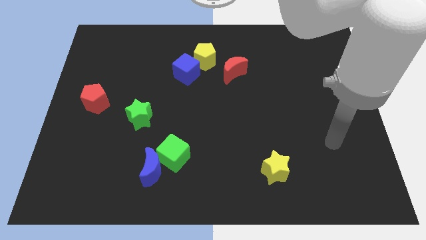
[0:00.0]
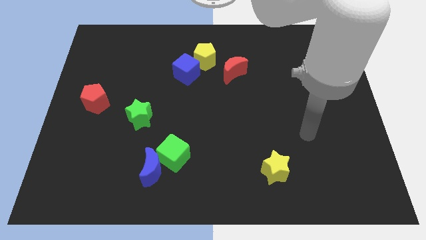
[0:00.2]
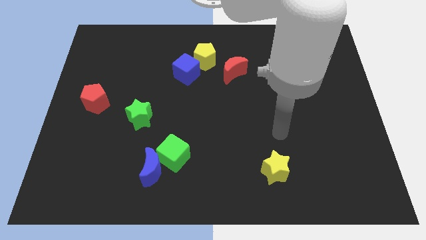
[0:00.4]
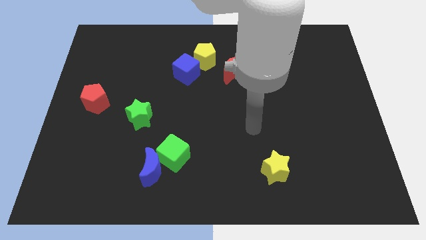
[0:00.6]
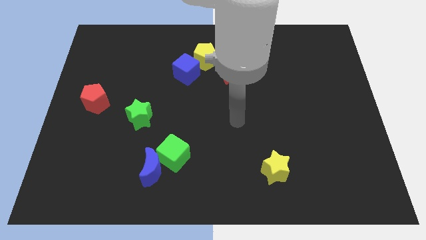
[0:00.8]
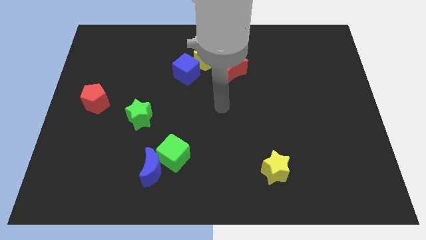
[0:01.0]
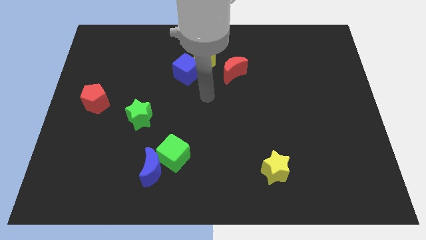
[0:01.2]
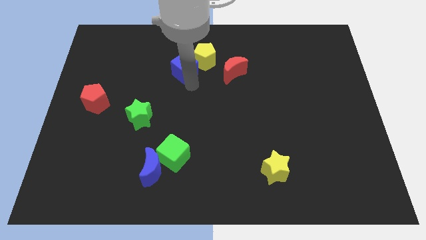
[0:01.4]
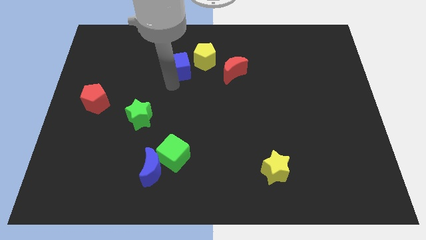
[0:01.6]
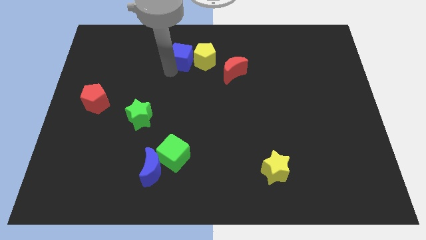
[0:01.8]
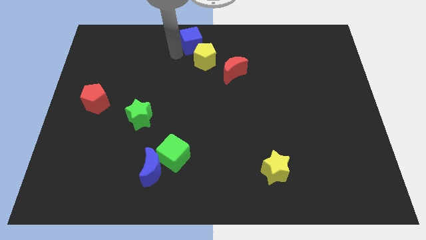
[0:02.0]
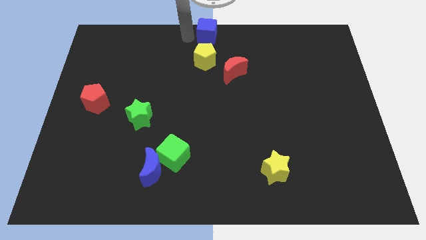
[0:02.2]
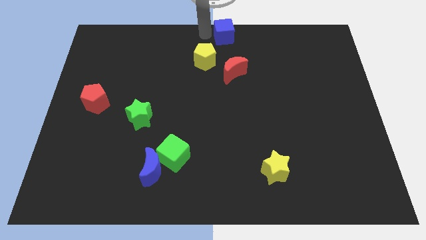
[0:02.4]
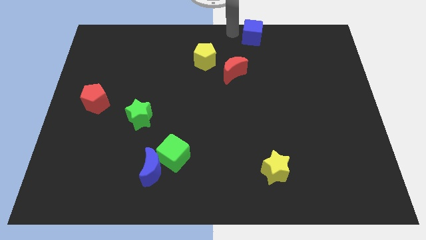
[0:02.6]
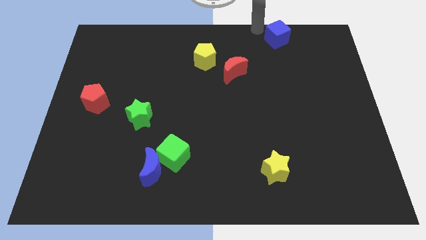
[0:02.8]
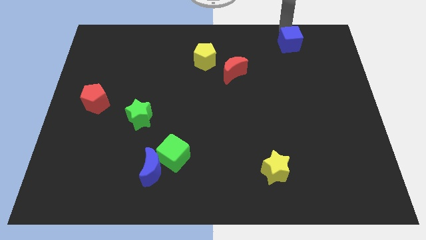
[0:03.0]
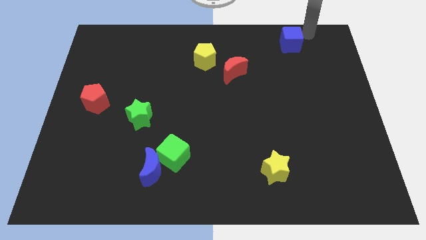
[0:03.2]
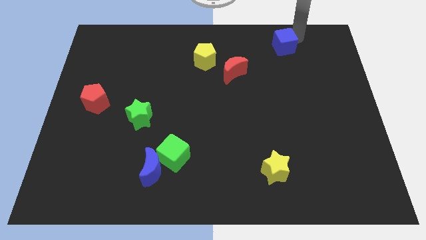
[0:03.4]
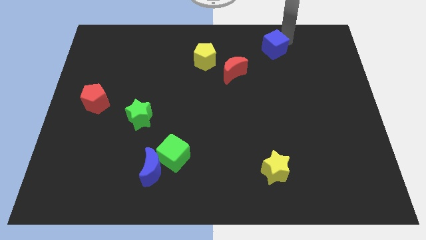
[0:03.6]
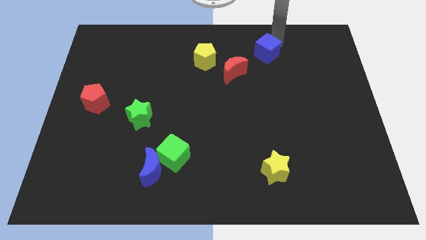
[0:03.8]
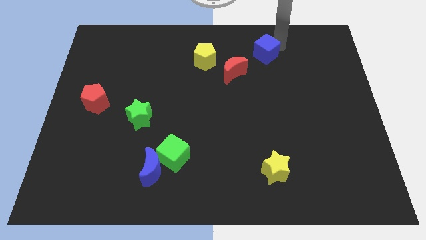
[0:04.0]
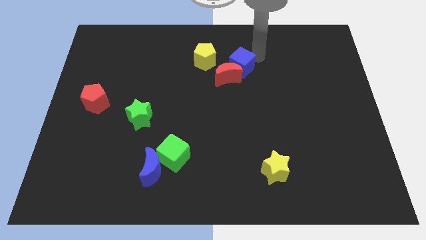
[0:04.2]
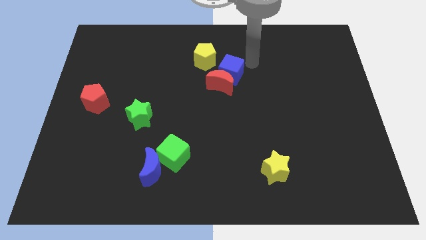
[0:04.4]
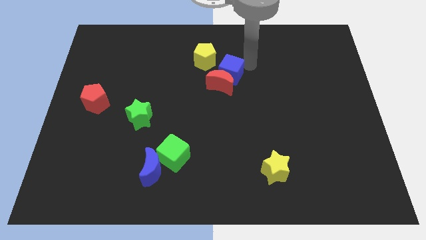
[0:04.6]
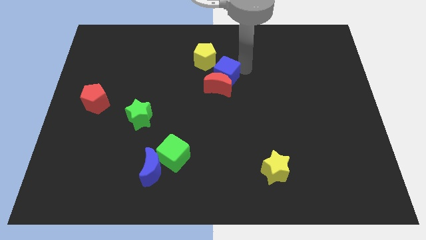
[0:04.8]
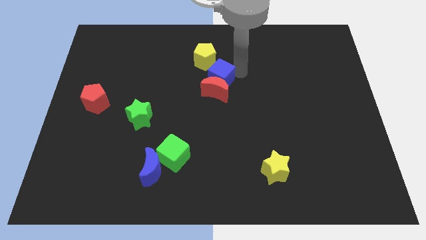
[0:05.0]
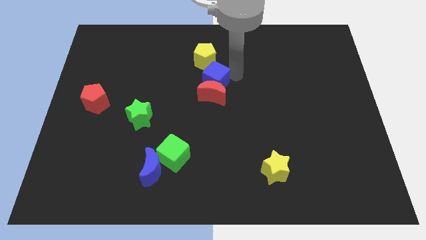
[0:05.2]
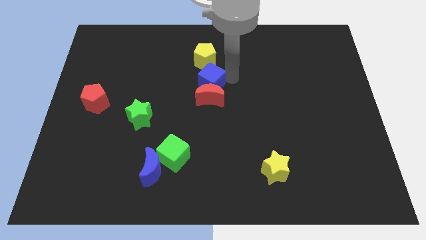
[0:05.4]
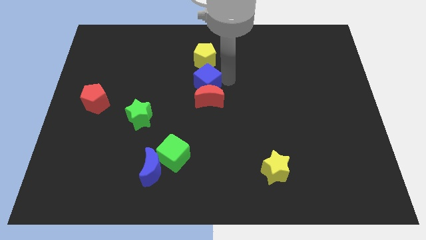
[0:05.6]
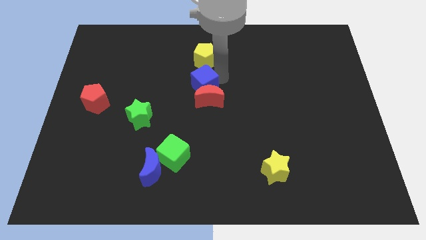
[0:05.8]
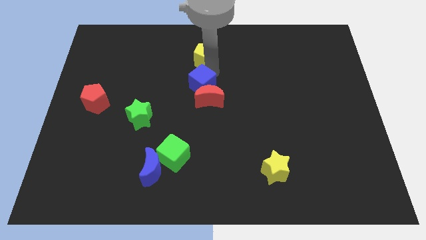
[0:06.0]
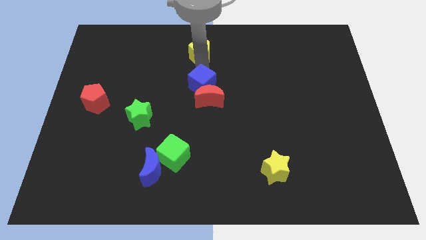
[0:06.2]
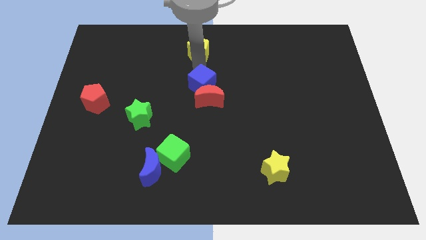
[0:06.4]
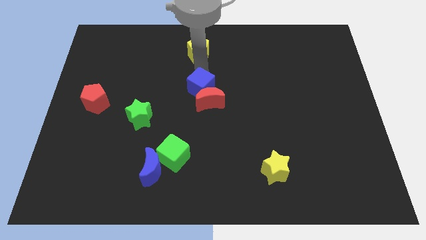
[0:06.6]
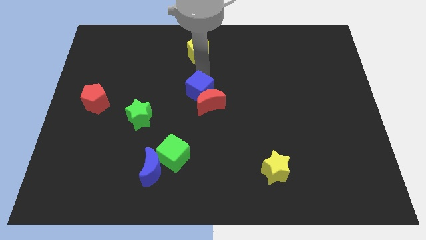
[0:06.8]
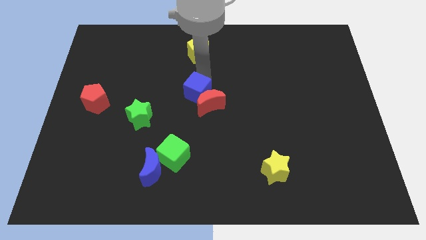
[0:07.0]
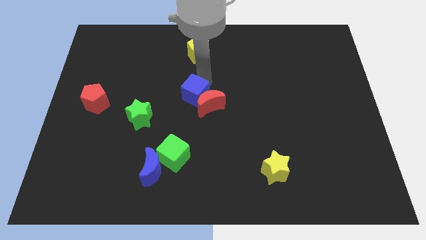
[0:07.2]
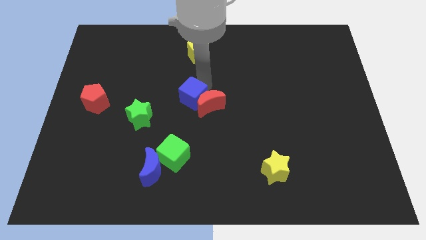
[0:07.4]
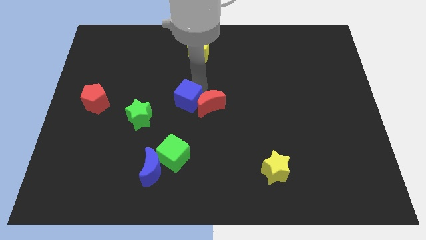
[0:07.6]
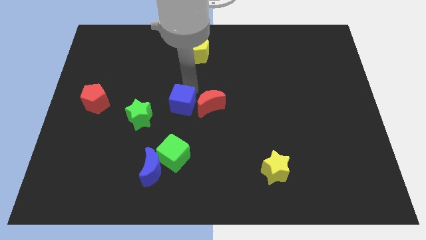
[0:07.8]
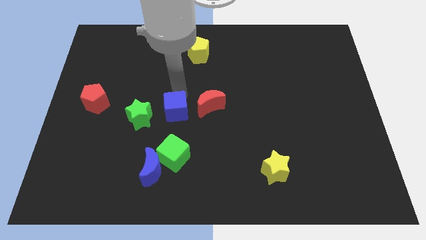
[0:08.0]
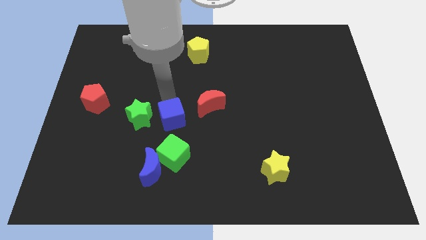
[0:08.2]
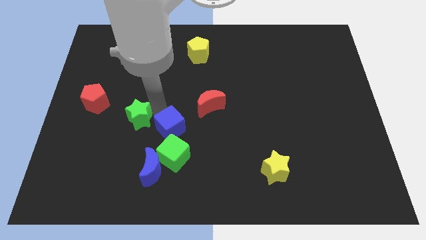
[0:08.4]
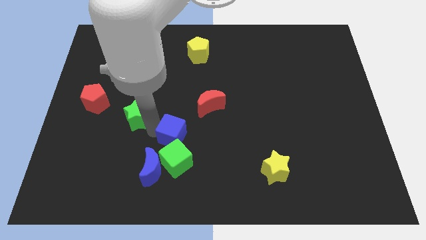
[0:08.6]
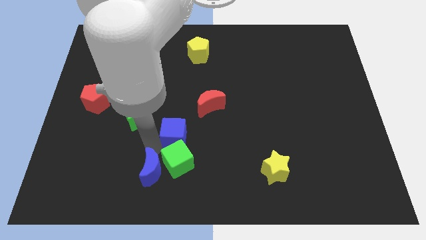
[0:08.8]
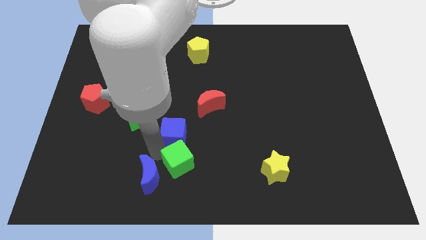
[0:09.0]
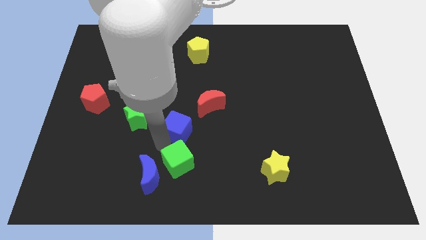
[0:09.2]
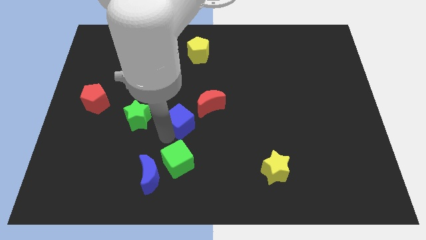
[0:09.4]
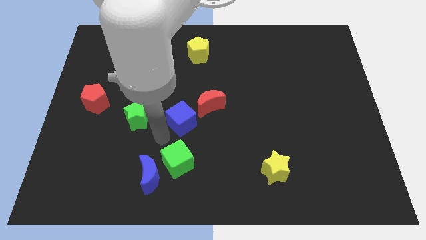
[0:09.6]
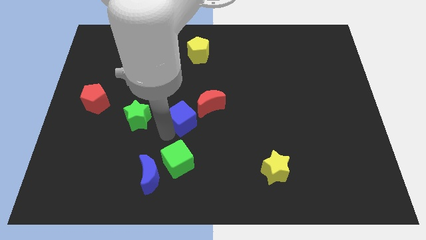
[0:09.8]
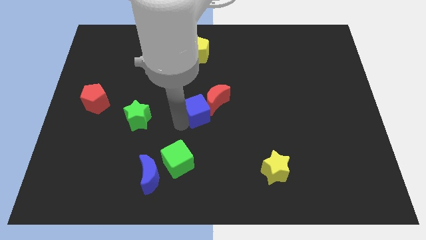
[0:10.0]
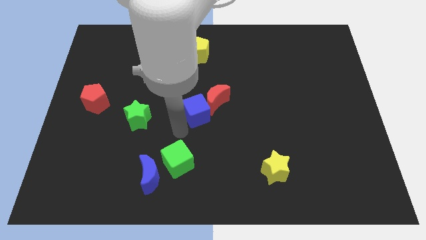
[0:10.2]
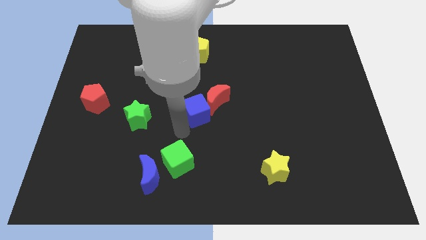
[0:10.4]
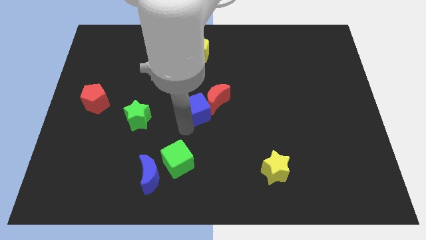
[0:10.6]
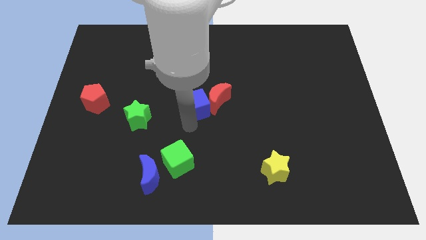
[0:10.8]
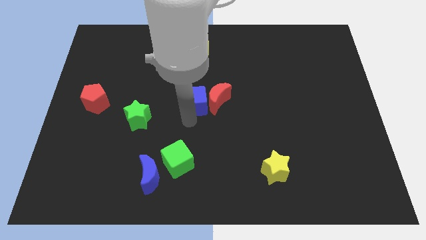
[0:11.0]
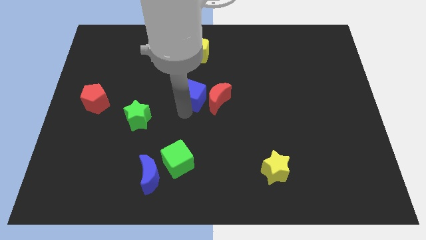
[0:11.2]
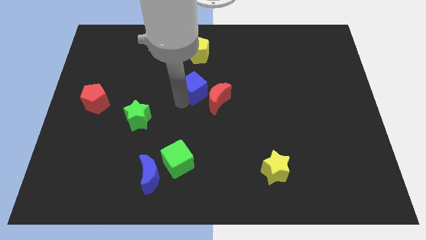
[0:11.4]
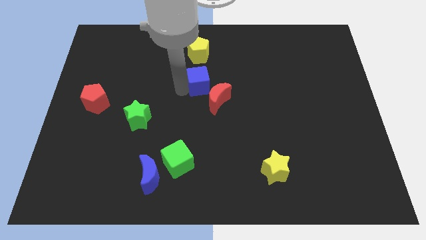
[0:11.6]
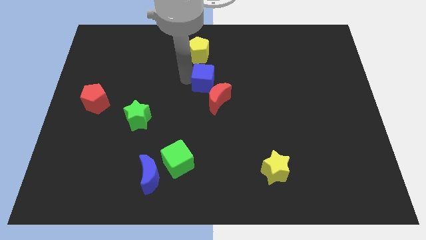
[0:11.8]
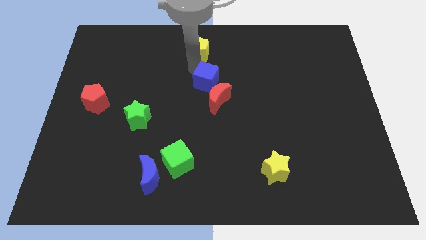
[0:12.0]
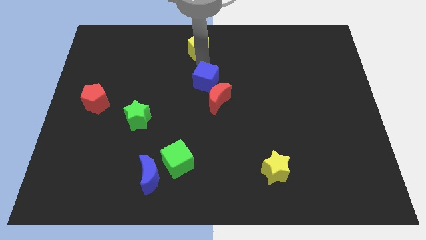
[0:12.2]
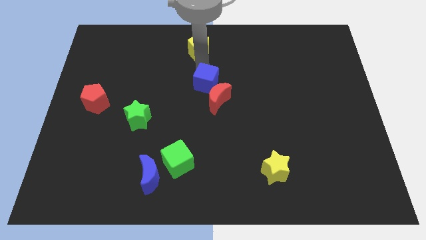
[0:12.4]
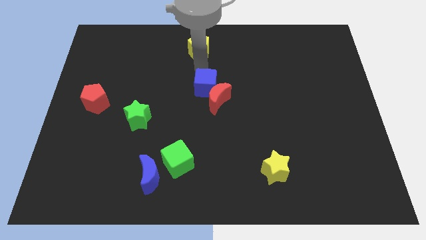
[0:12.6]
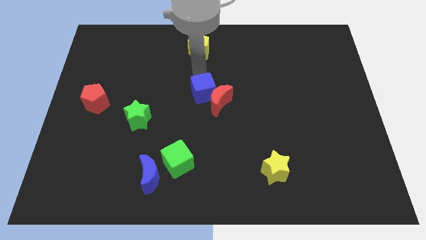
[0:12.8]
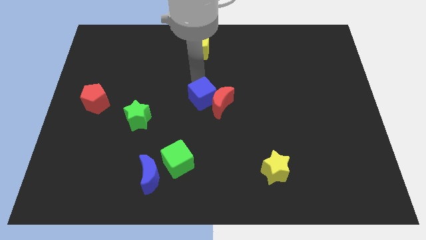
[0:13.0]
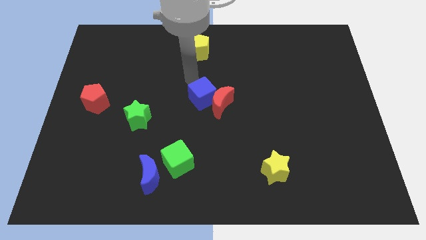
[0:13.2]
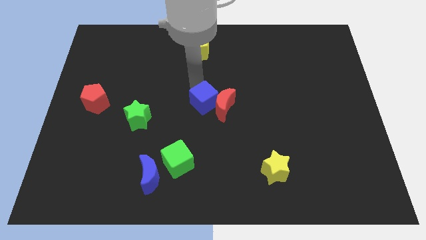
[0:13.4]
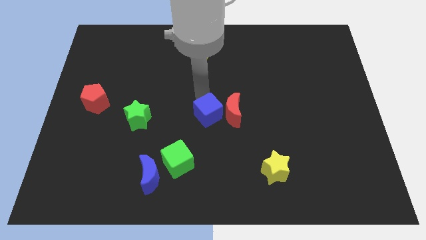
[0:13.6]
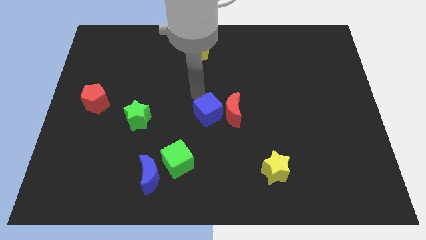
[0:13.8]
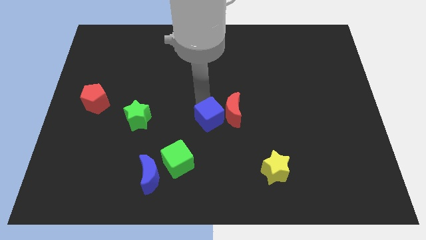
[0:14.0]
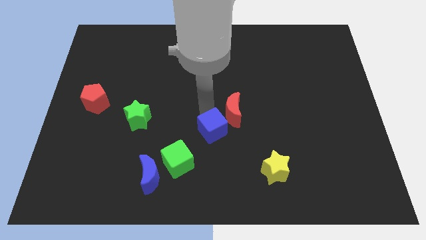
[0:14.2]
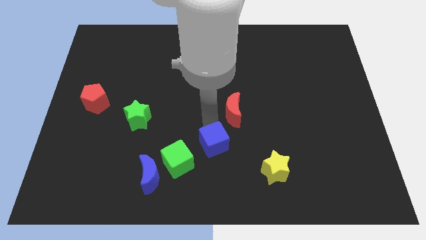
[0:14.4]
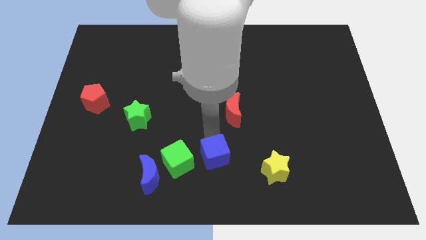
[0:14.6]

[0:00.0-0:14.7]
move the blue cube to the left of the yellow star
